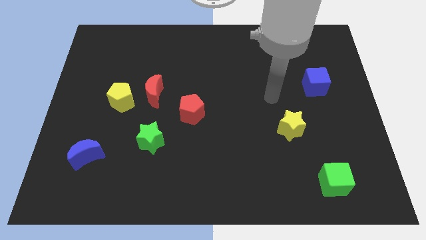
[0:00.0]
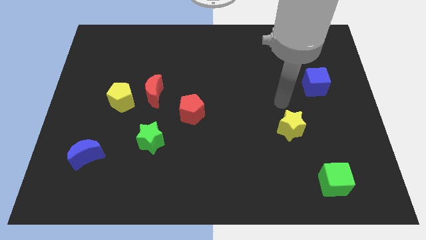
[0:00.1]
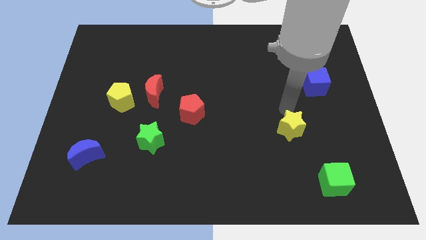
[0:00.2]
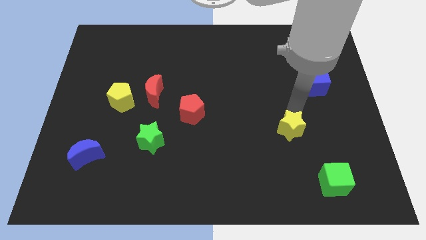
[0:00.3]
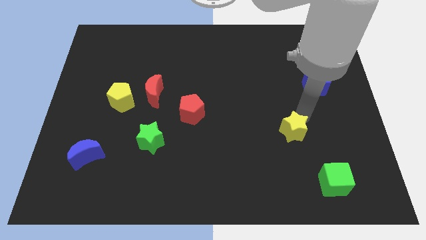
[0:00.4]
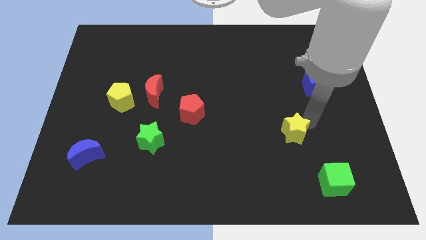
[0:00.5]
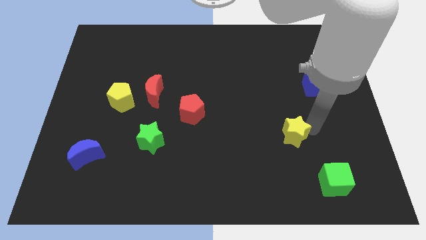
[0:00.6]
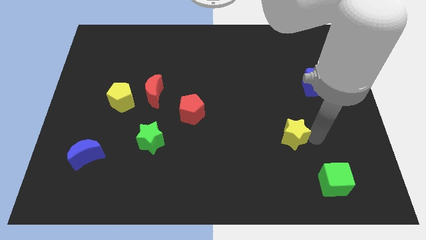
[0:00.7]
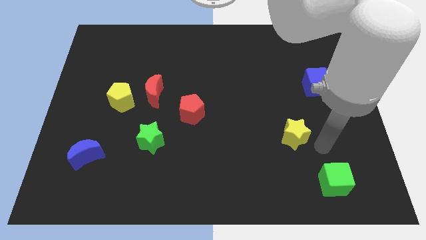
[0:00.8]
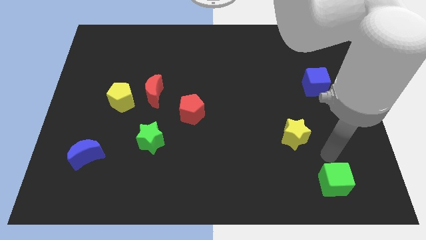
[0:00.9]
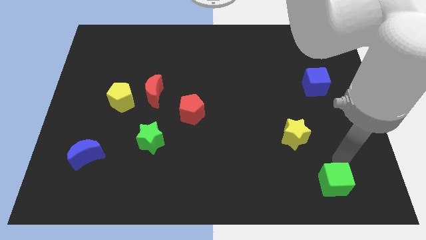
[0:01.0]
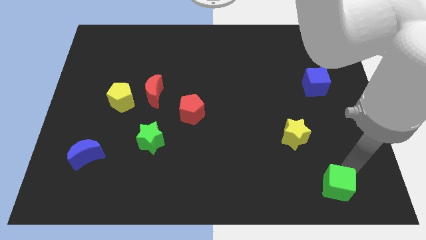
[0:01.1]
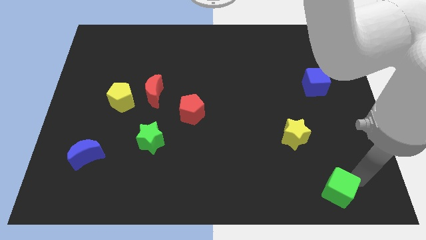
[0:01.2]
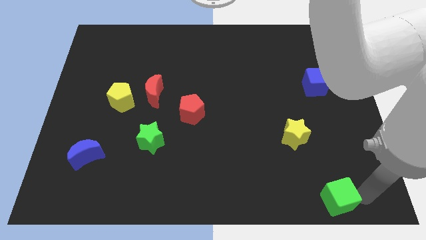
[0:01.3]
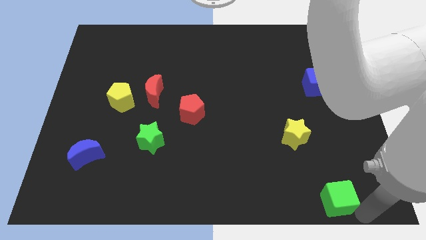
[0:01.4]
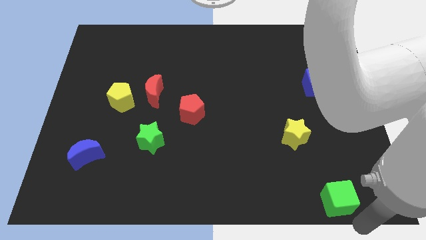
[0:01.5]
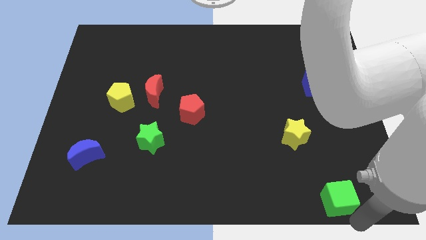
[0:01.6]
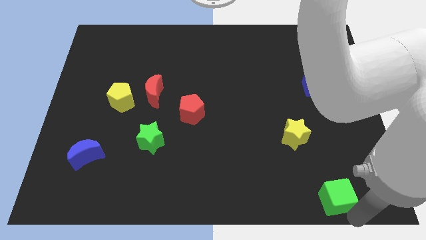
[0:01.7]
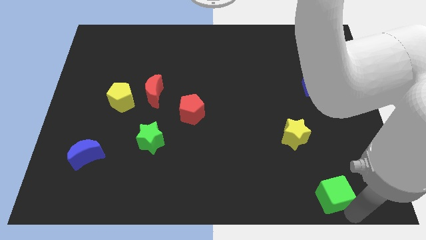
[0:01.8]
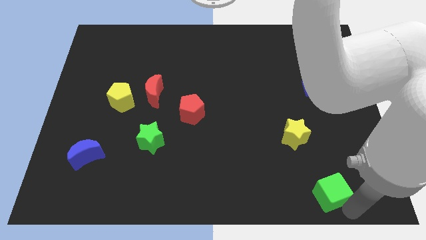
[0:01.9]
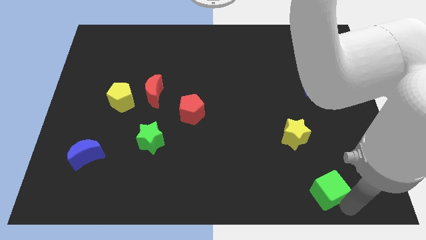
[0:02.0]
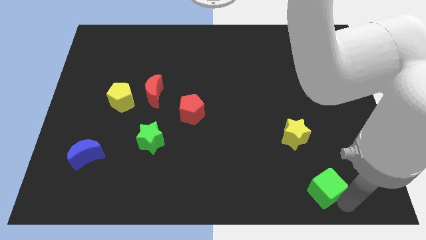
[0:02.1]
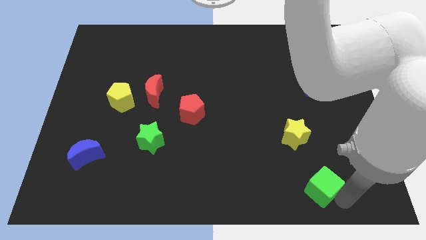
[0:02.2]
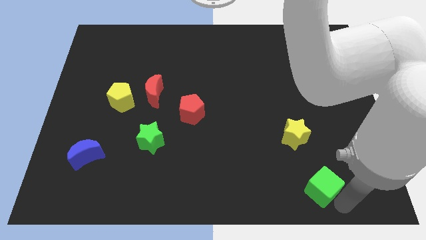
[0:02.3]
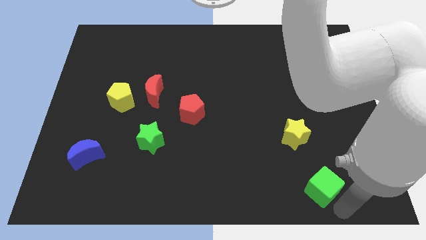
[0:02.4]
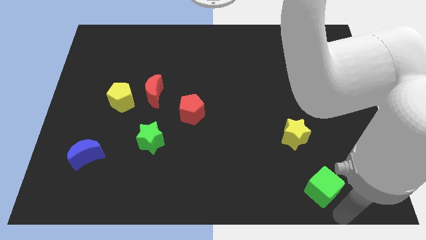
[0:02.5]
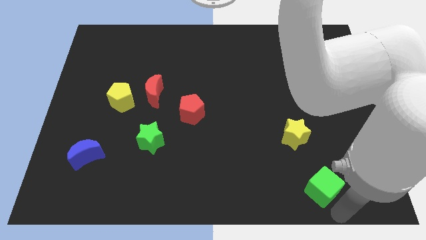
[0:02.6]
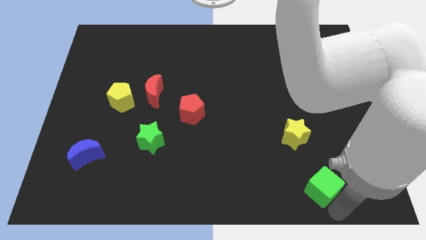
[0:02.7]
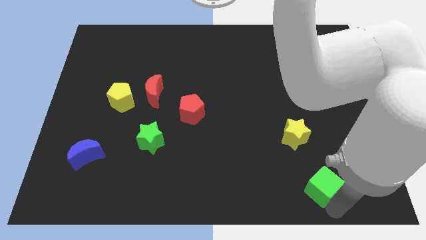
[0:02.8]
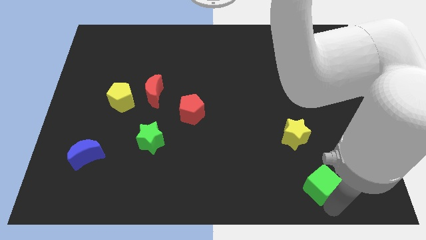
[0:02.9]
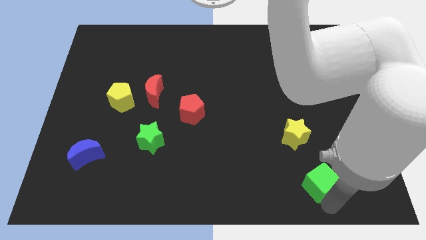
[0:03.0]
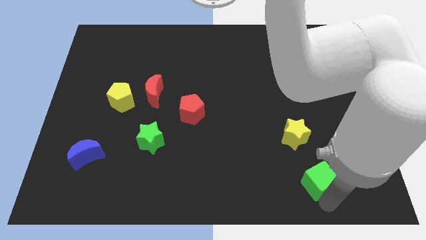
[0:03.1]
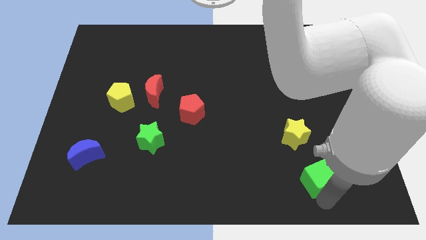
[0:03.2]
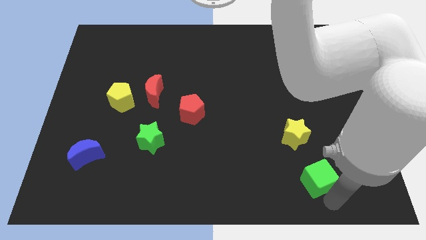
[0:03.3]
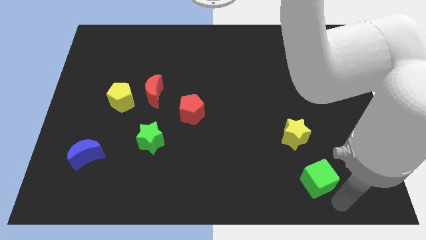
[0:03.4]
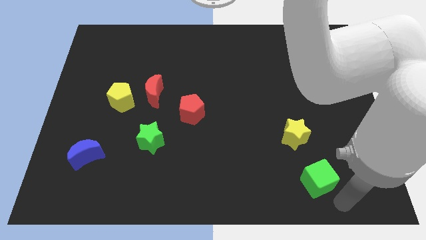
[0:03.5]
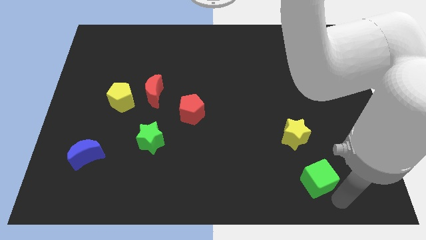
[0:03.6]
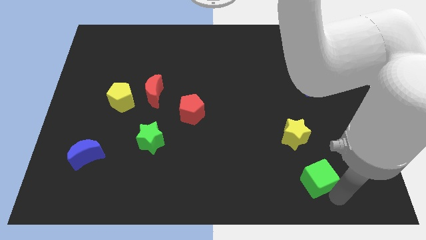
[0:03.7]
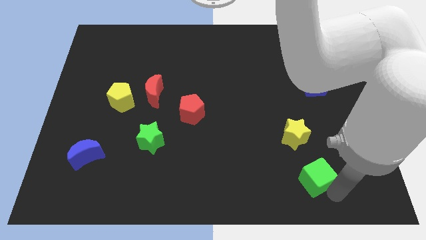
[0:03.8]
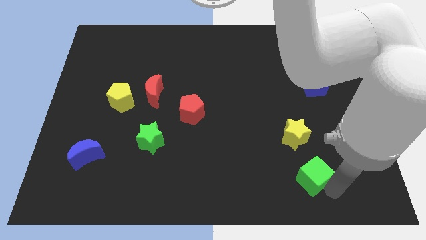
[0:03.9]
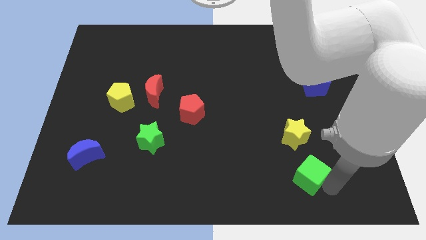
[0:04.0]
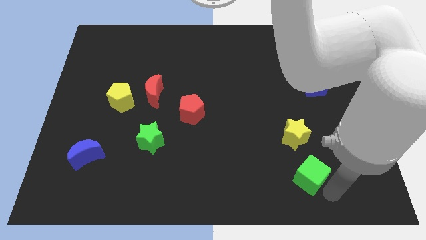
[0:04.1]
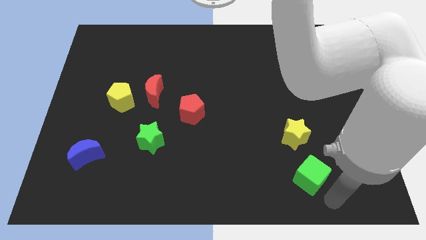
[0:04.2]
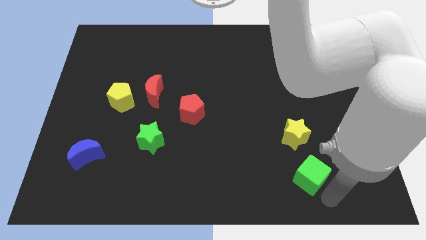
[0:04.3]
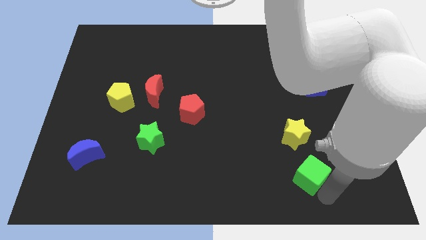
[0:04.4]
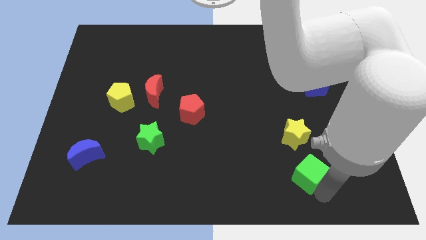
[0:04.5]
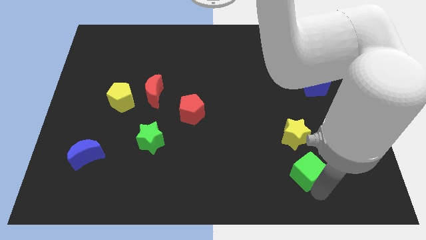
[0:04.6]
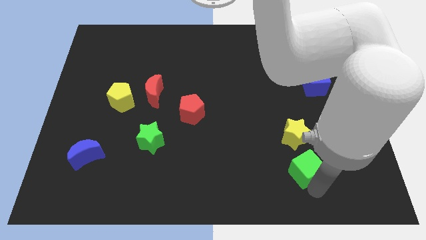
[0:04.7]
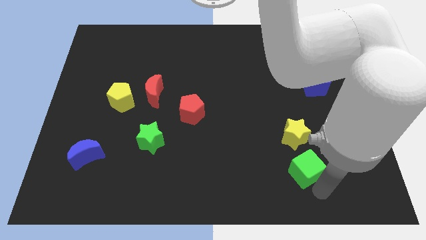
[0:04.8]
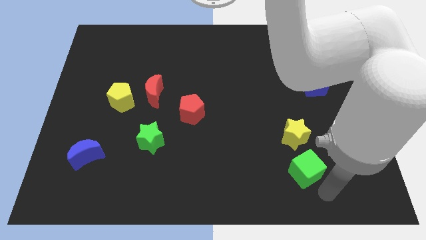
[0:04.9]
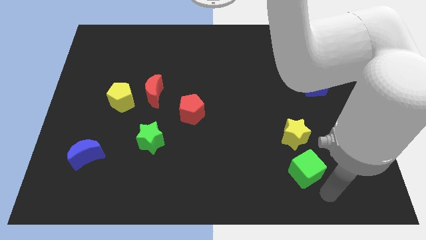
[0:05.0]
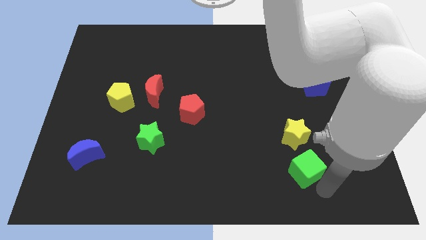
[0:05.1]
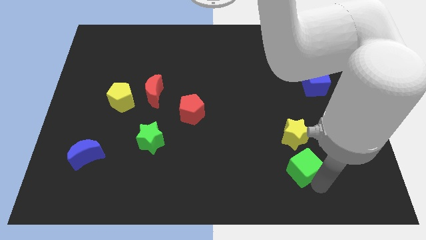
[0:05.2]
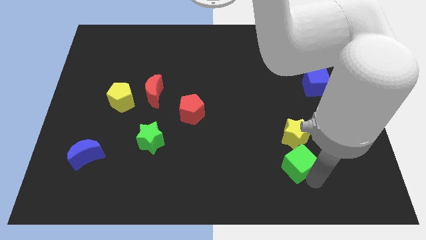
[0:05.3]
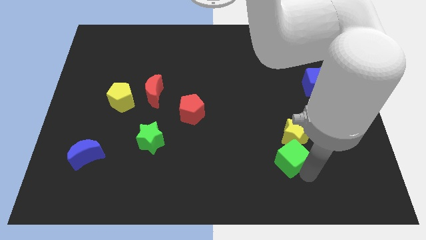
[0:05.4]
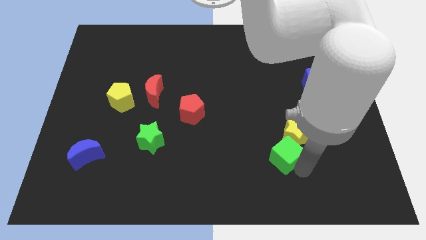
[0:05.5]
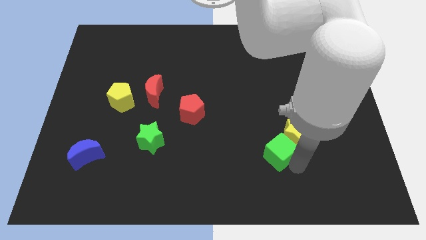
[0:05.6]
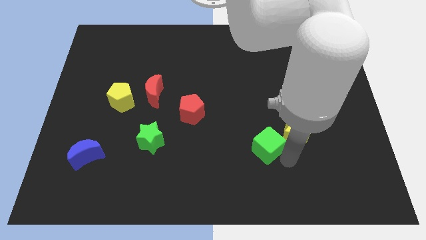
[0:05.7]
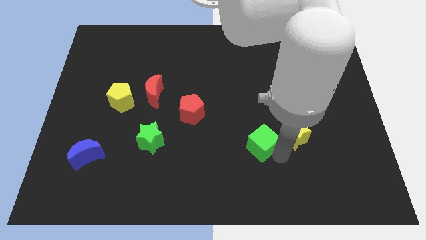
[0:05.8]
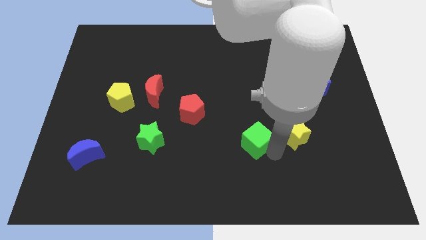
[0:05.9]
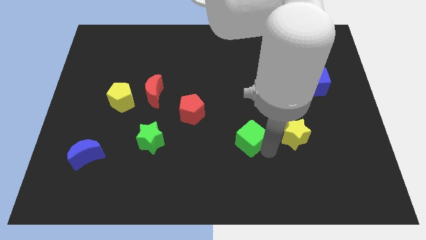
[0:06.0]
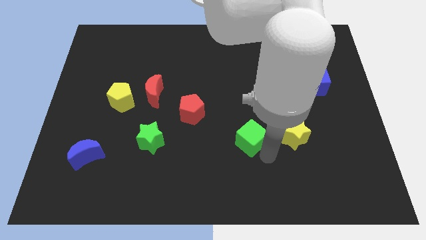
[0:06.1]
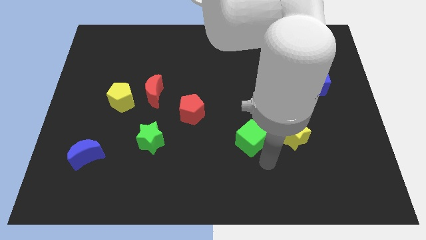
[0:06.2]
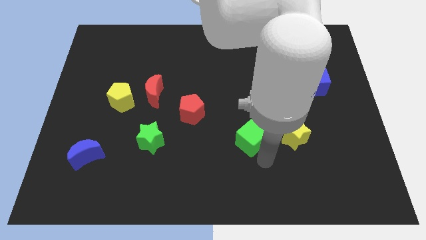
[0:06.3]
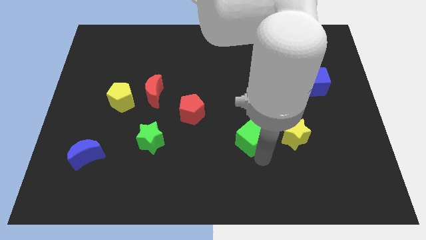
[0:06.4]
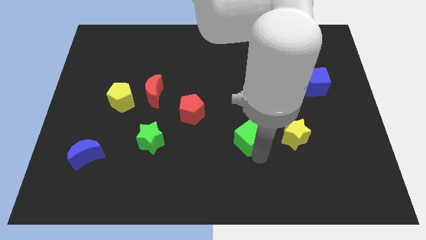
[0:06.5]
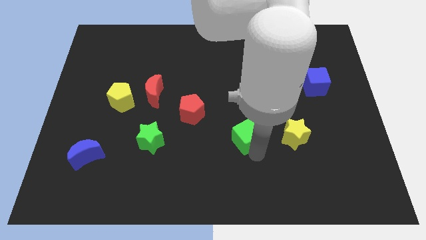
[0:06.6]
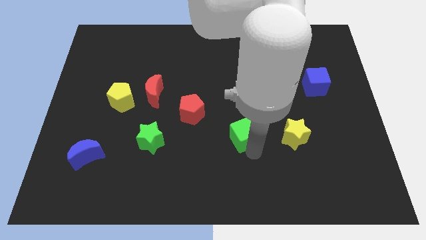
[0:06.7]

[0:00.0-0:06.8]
move the green cube to the middle

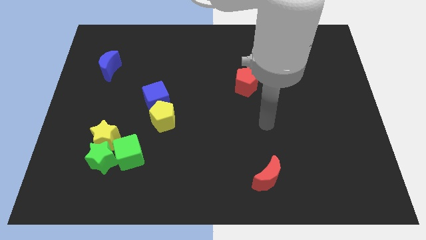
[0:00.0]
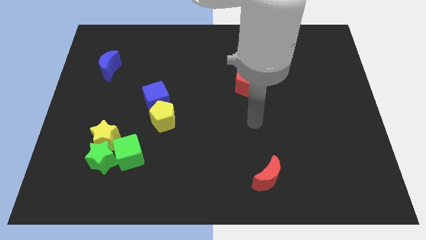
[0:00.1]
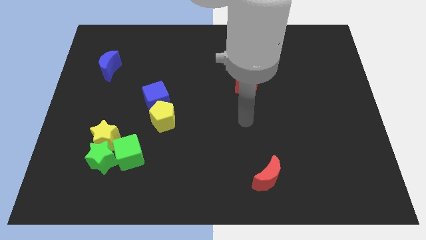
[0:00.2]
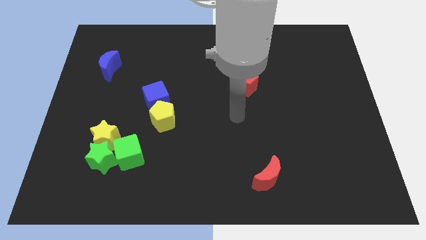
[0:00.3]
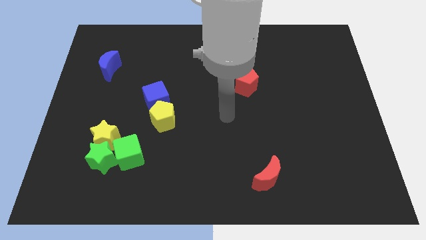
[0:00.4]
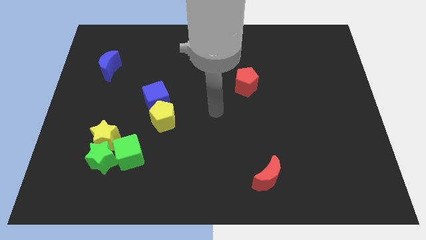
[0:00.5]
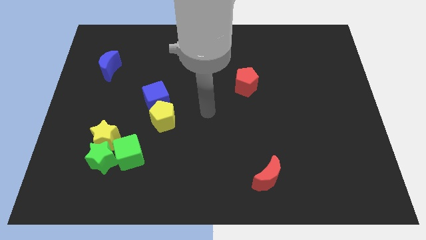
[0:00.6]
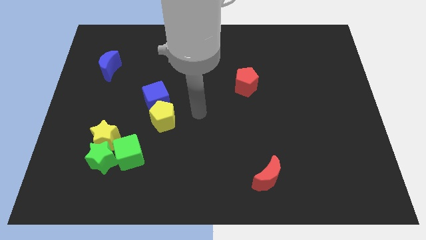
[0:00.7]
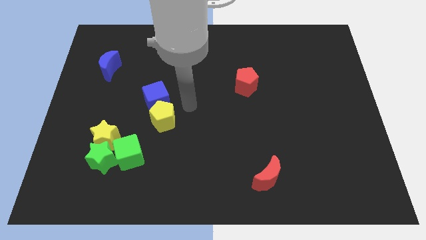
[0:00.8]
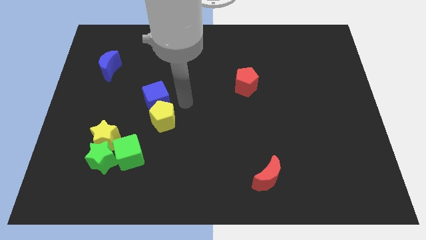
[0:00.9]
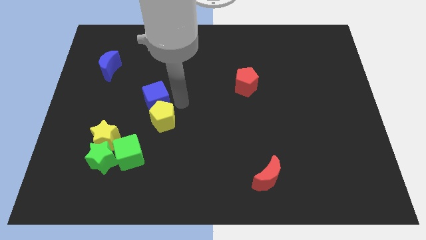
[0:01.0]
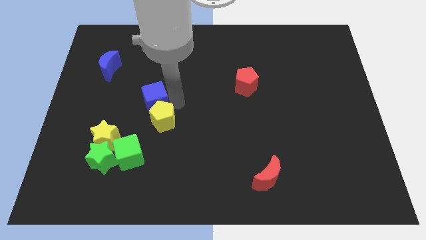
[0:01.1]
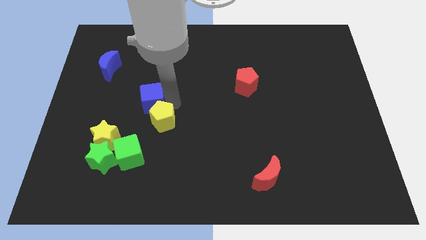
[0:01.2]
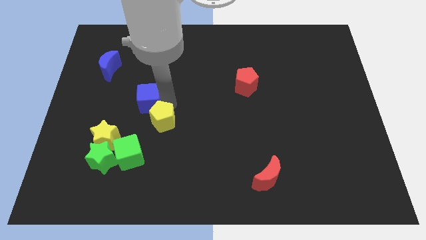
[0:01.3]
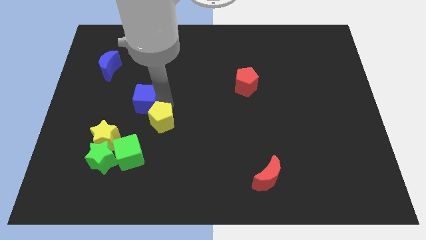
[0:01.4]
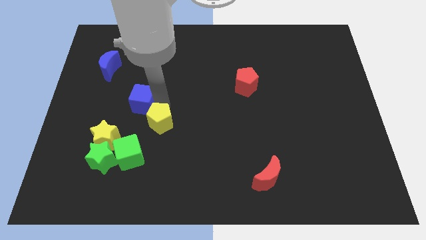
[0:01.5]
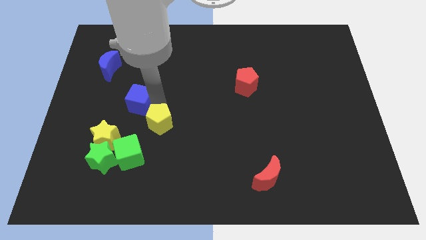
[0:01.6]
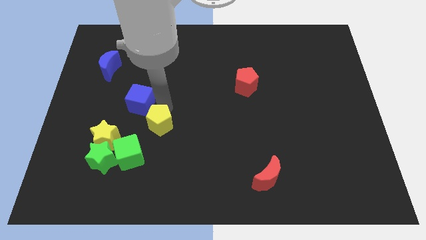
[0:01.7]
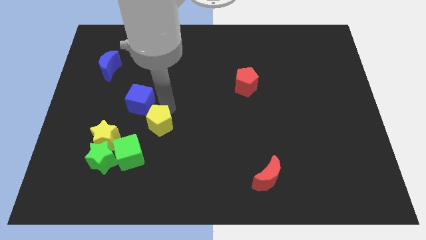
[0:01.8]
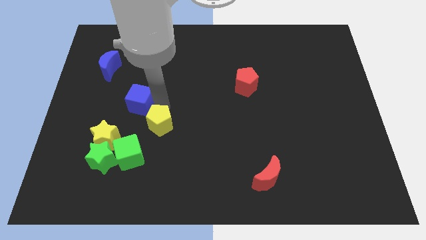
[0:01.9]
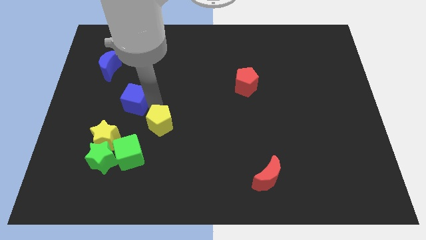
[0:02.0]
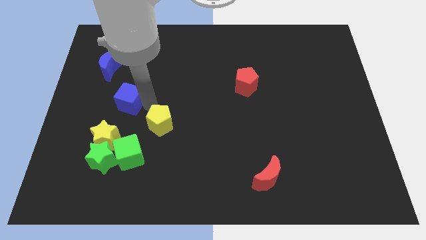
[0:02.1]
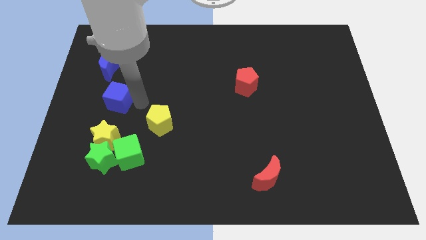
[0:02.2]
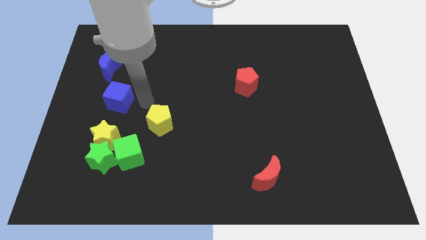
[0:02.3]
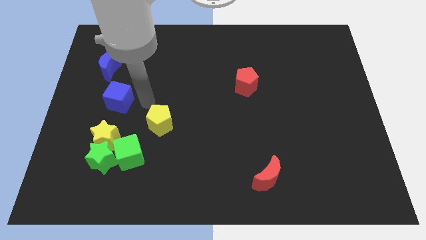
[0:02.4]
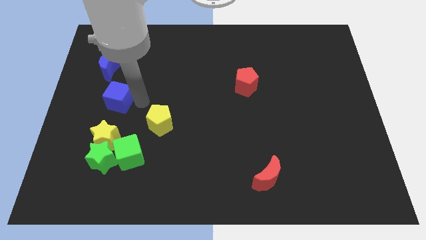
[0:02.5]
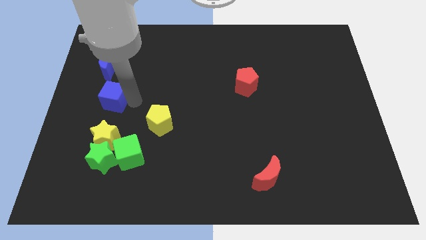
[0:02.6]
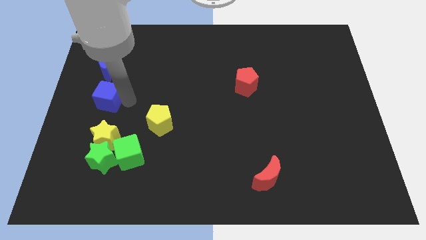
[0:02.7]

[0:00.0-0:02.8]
slide the blue cube to the center left
